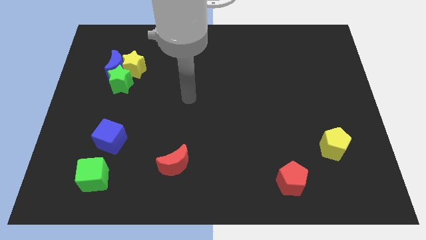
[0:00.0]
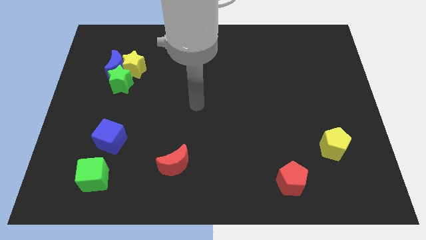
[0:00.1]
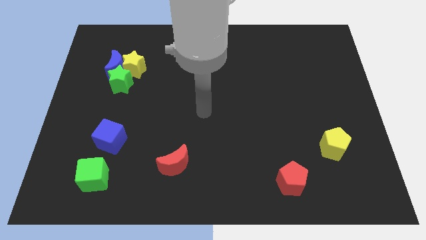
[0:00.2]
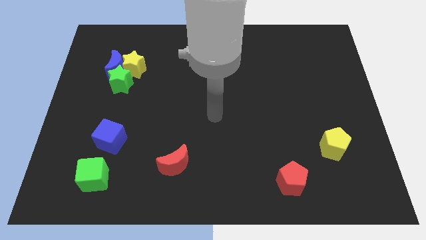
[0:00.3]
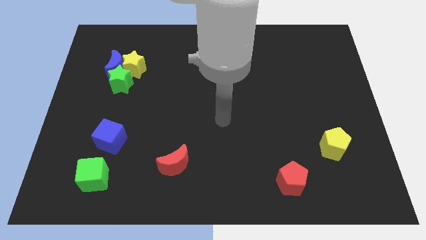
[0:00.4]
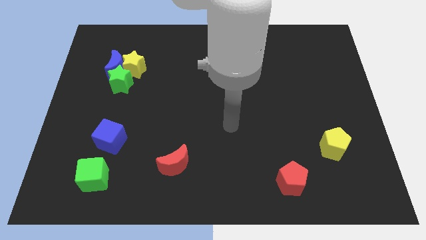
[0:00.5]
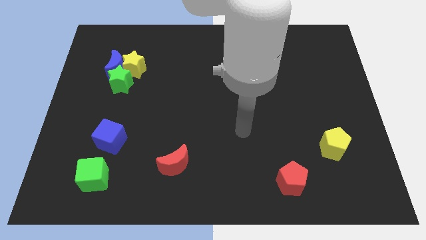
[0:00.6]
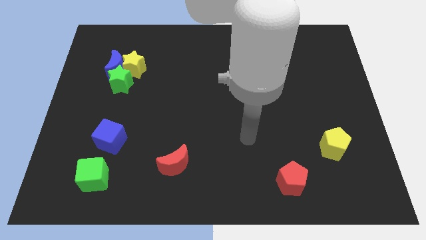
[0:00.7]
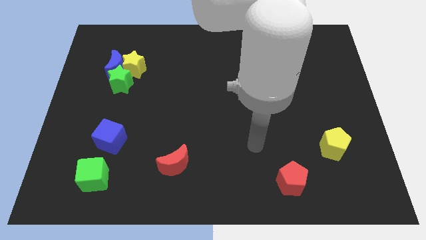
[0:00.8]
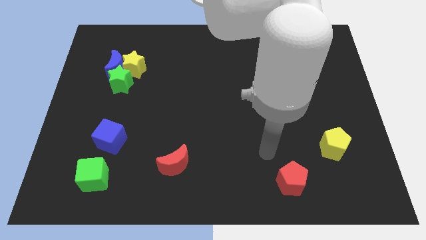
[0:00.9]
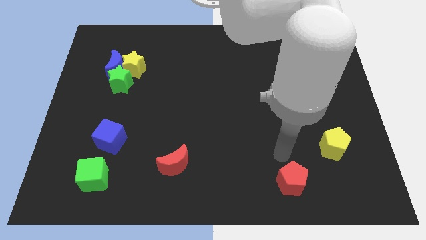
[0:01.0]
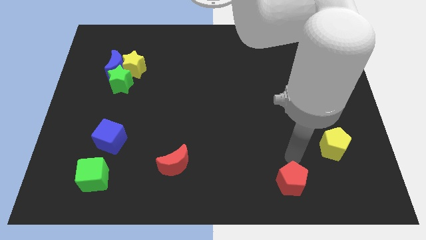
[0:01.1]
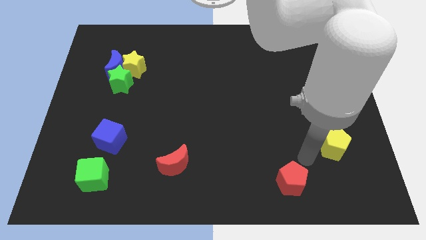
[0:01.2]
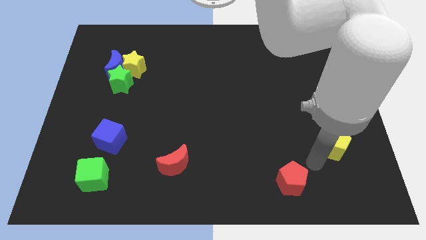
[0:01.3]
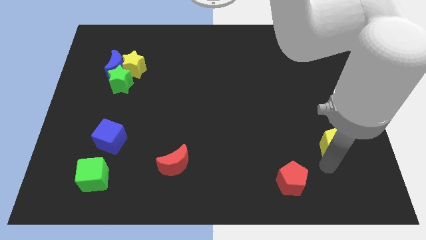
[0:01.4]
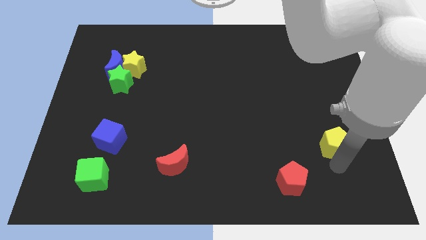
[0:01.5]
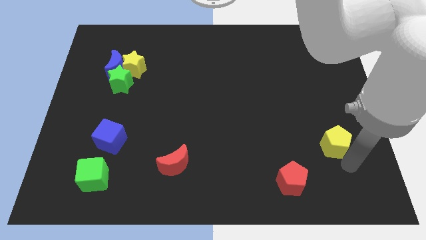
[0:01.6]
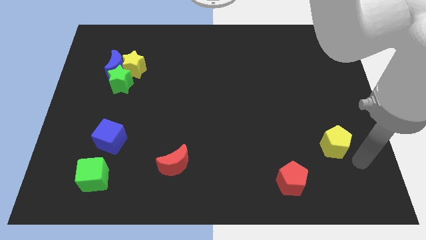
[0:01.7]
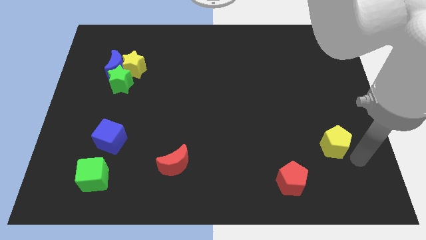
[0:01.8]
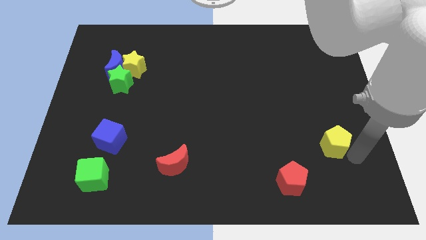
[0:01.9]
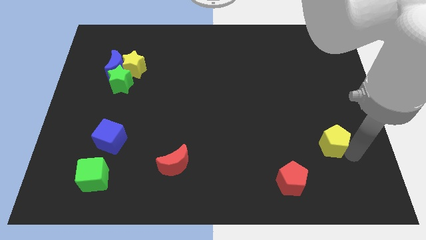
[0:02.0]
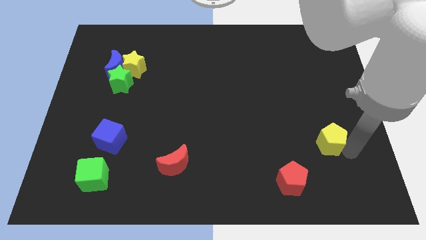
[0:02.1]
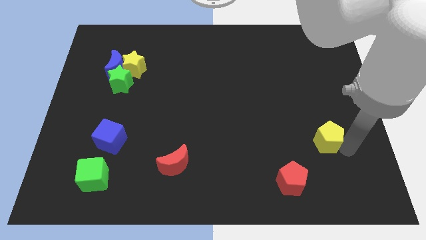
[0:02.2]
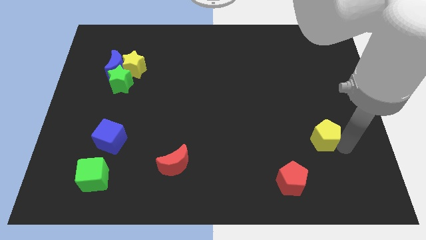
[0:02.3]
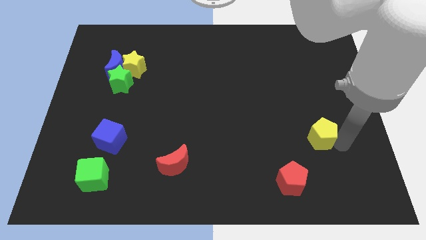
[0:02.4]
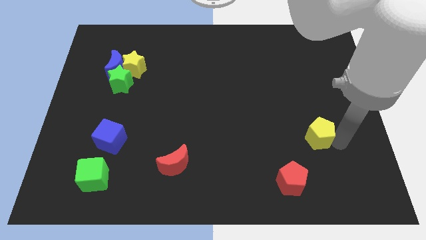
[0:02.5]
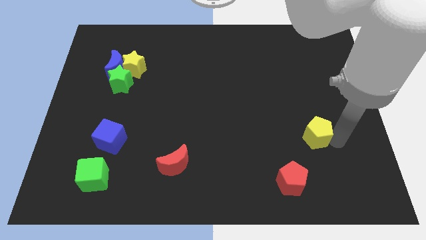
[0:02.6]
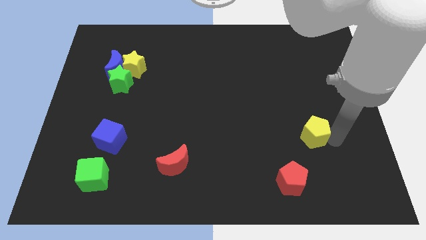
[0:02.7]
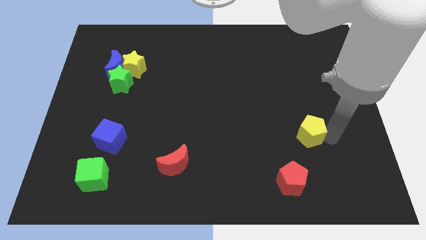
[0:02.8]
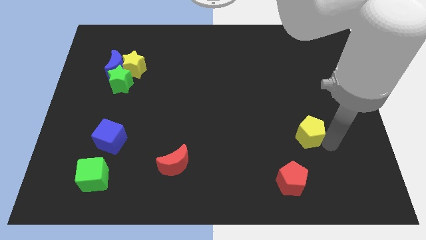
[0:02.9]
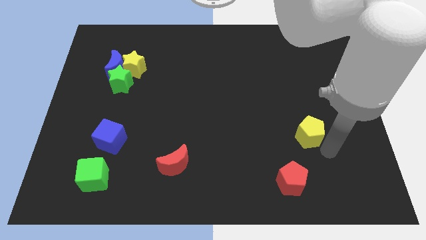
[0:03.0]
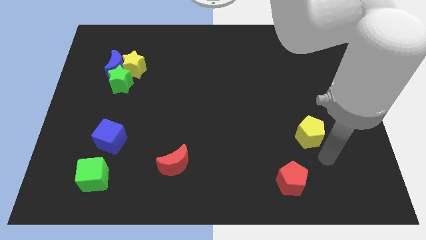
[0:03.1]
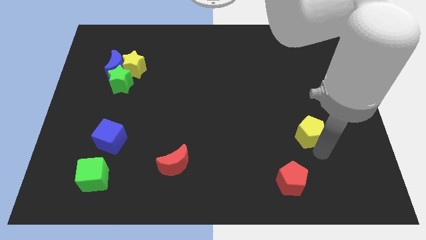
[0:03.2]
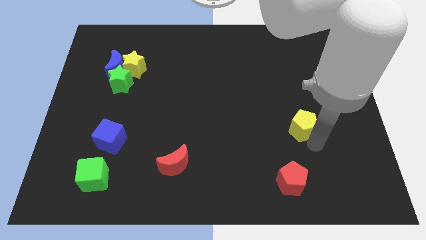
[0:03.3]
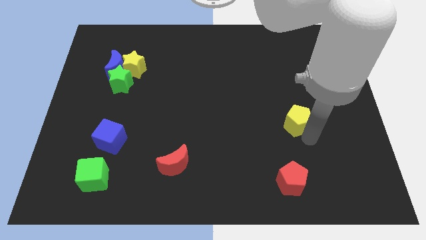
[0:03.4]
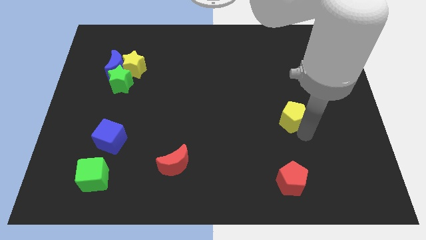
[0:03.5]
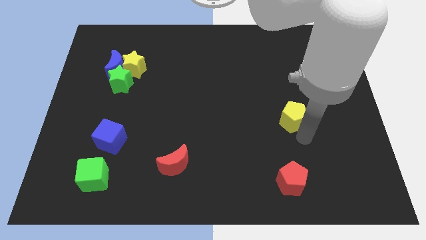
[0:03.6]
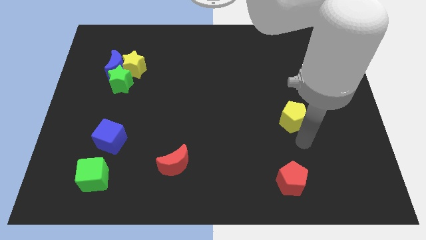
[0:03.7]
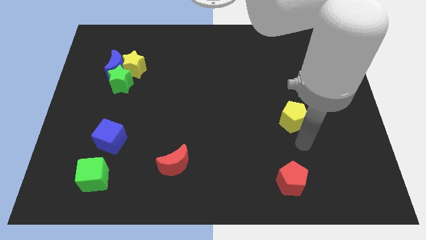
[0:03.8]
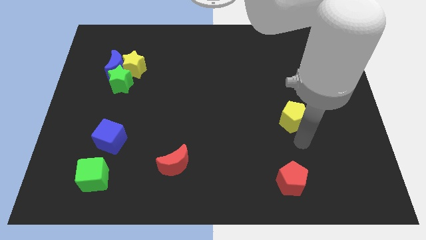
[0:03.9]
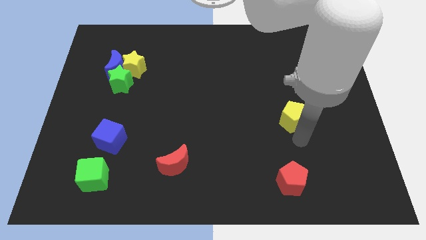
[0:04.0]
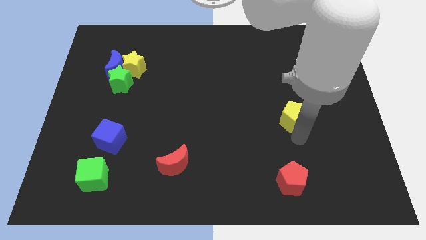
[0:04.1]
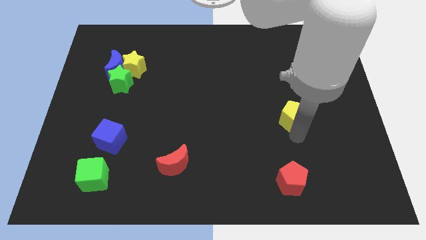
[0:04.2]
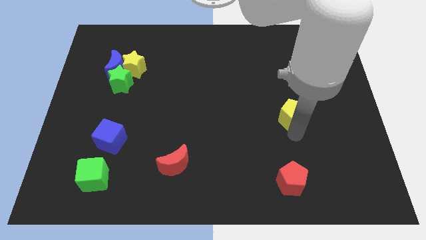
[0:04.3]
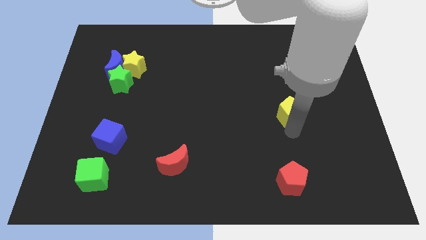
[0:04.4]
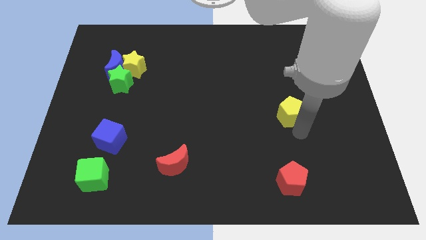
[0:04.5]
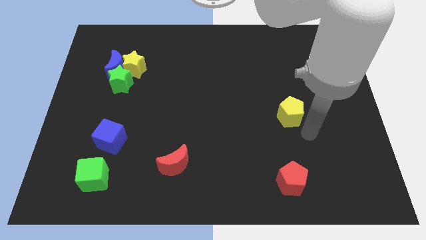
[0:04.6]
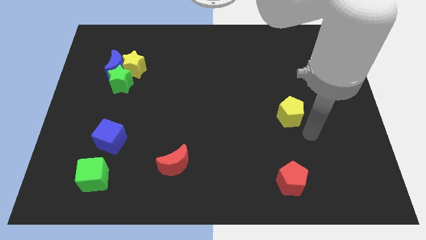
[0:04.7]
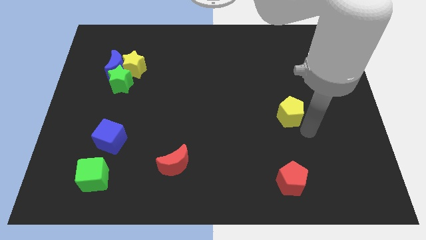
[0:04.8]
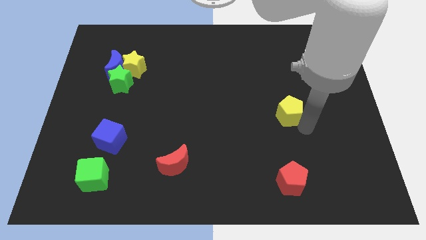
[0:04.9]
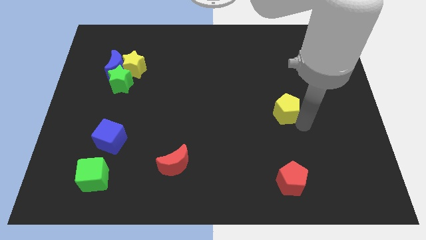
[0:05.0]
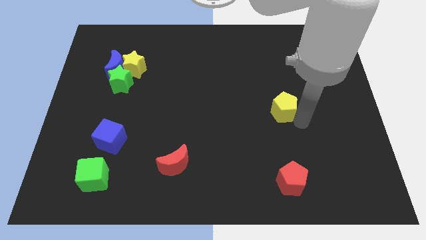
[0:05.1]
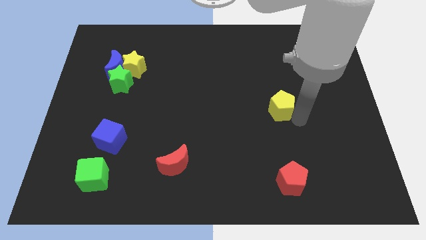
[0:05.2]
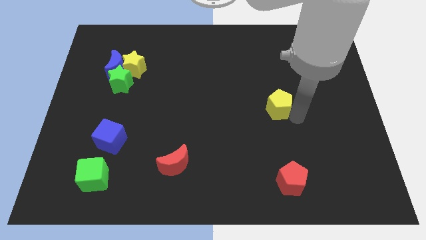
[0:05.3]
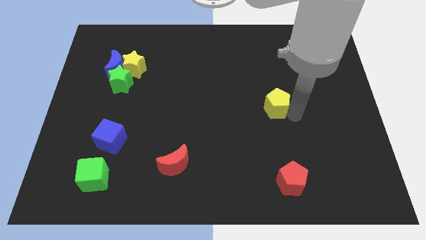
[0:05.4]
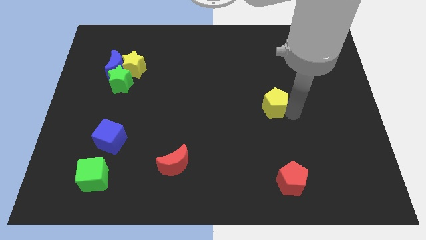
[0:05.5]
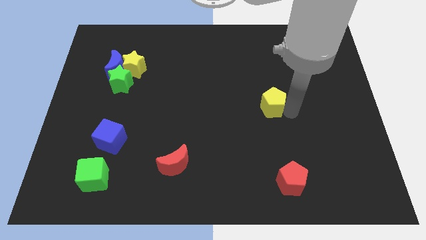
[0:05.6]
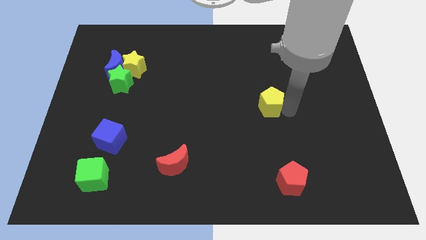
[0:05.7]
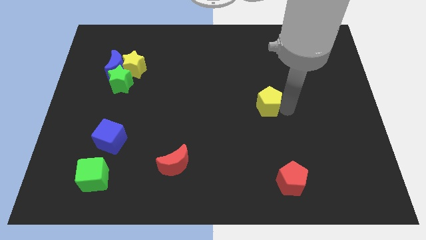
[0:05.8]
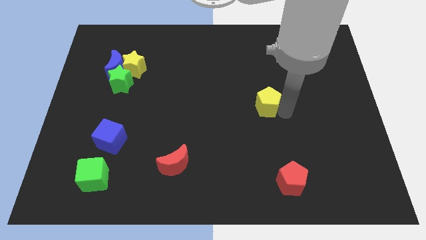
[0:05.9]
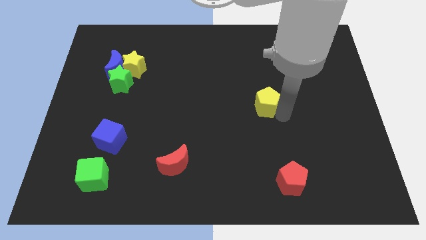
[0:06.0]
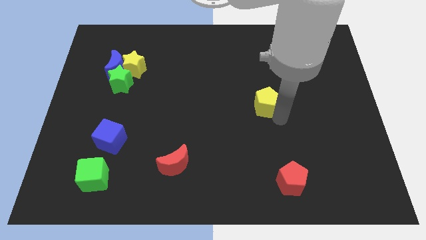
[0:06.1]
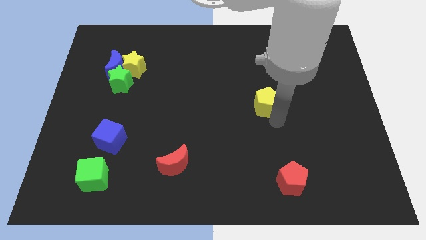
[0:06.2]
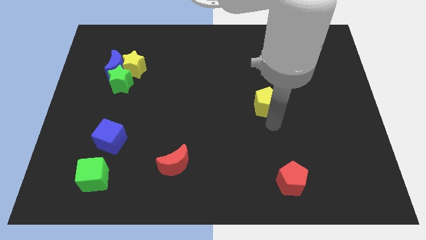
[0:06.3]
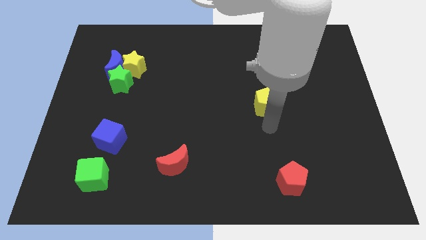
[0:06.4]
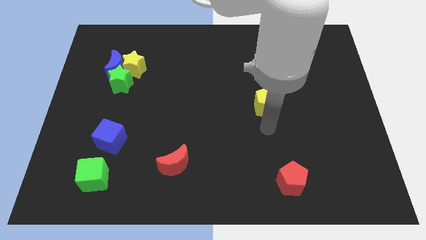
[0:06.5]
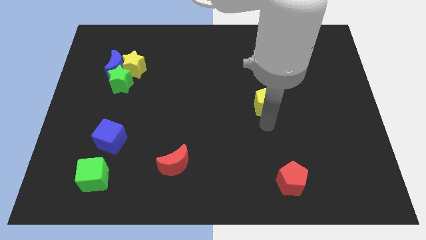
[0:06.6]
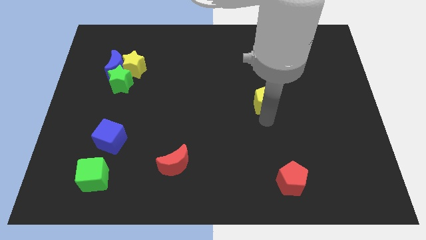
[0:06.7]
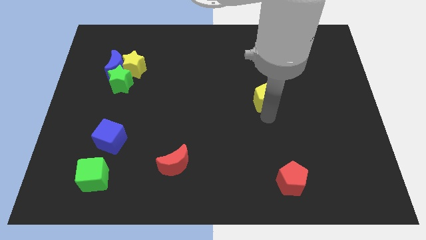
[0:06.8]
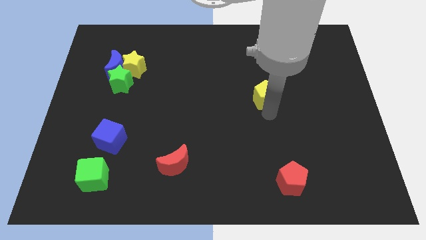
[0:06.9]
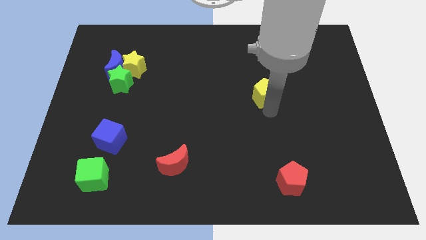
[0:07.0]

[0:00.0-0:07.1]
push the yellow pentagon up and left

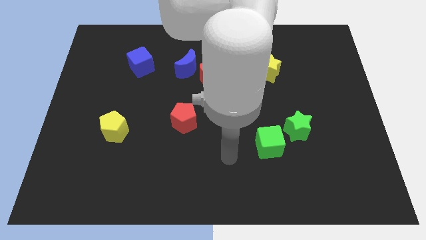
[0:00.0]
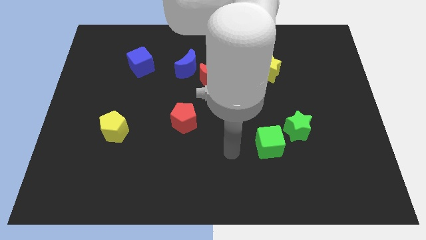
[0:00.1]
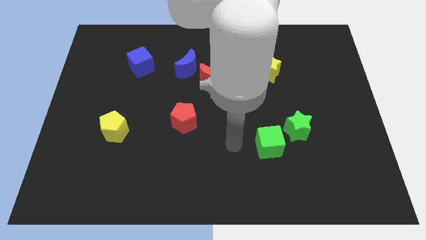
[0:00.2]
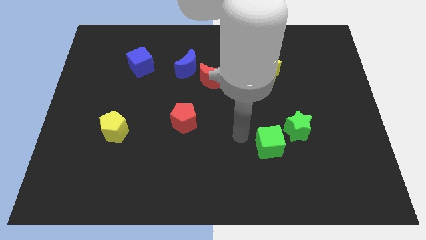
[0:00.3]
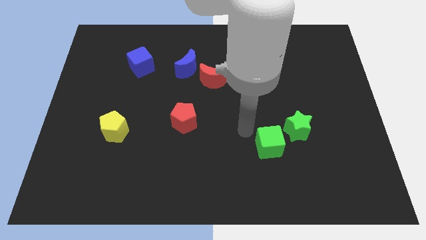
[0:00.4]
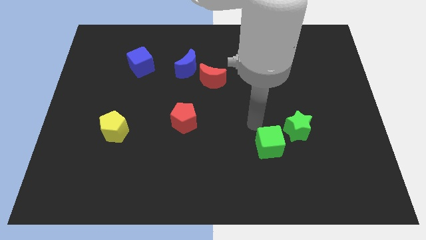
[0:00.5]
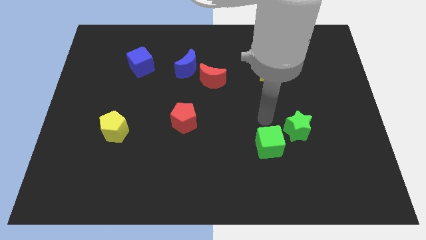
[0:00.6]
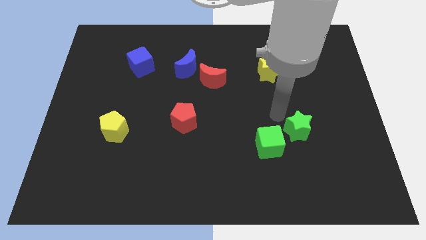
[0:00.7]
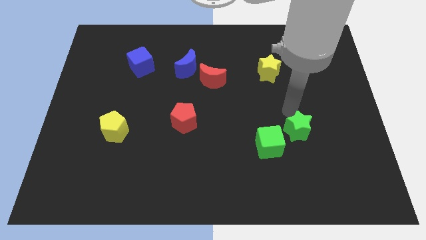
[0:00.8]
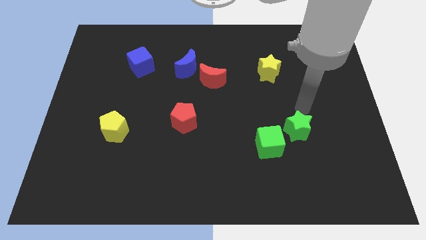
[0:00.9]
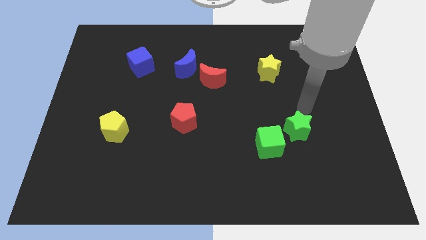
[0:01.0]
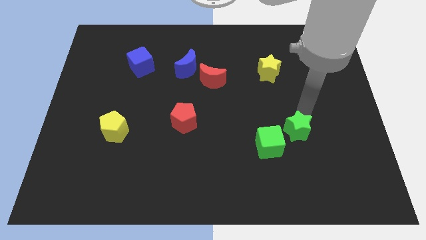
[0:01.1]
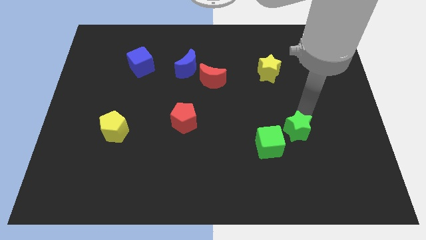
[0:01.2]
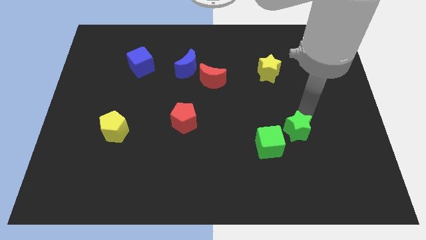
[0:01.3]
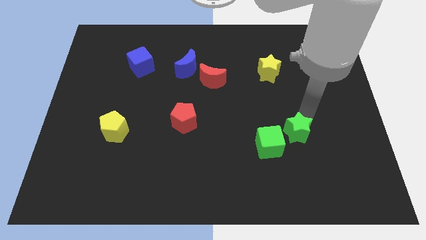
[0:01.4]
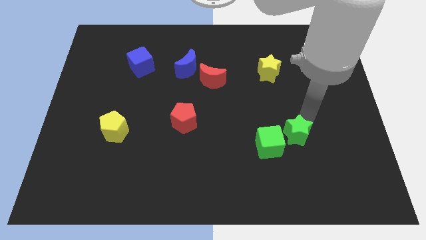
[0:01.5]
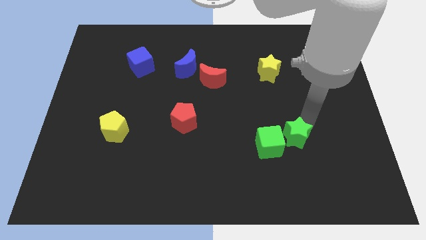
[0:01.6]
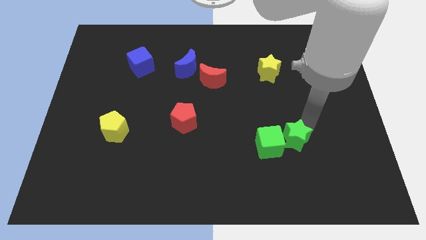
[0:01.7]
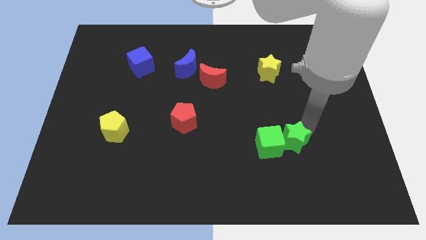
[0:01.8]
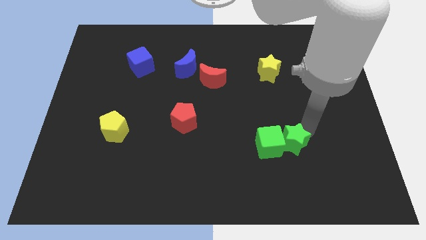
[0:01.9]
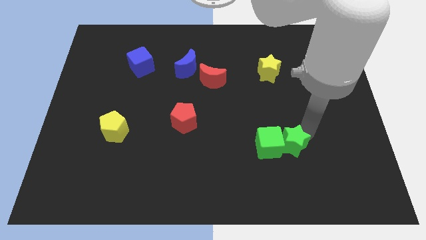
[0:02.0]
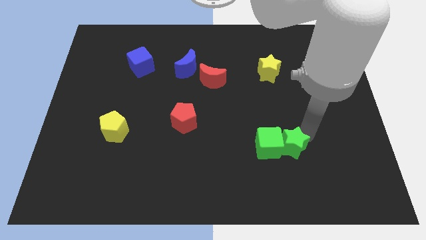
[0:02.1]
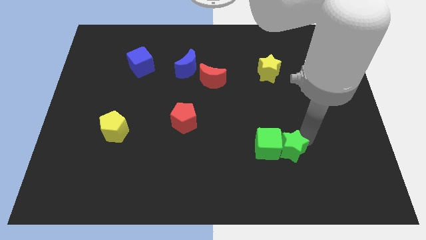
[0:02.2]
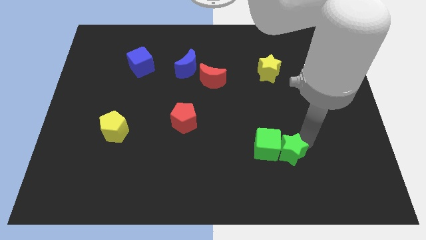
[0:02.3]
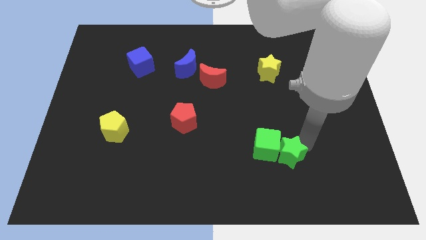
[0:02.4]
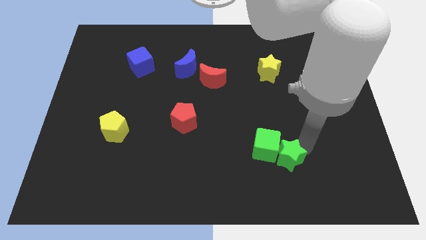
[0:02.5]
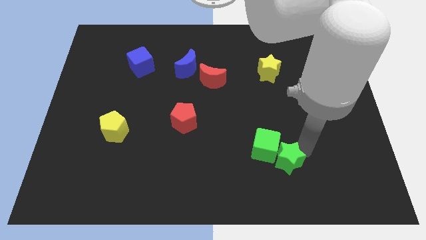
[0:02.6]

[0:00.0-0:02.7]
slightly slide the green star down and then to the left
